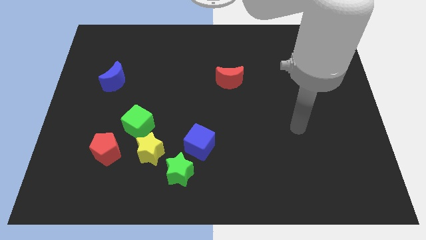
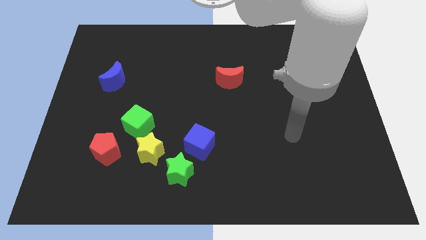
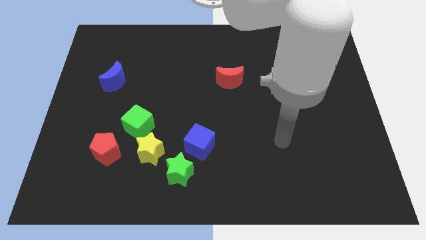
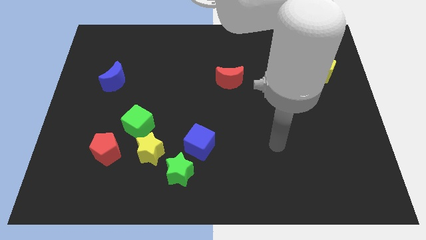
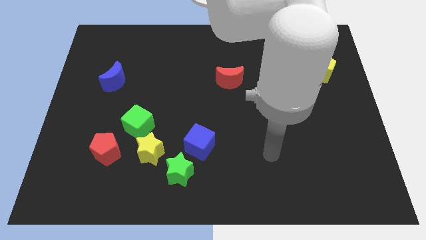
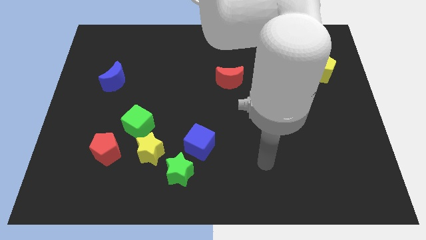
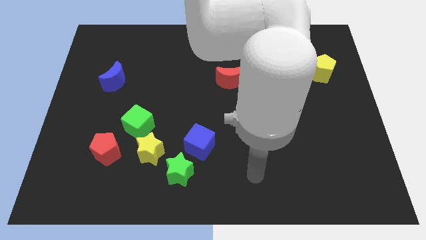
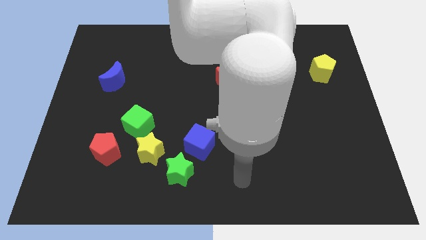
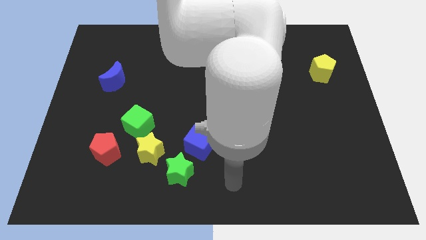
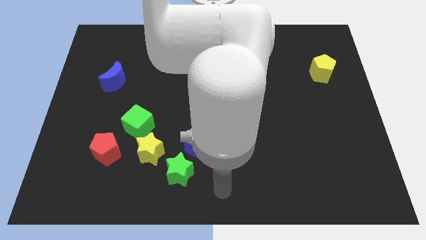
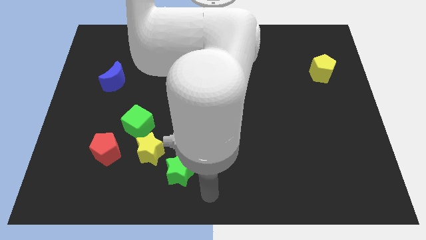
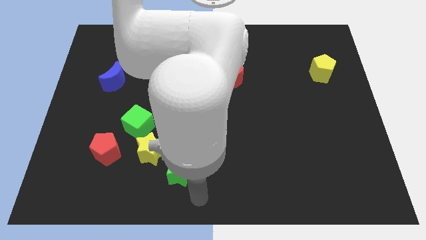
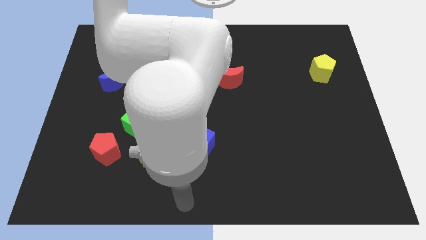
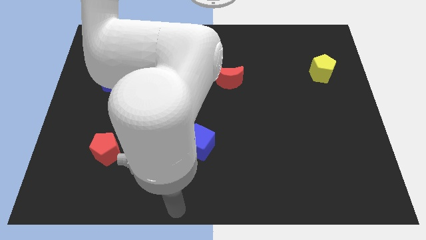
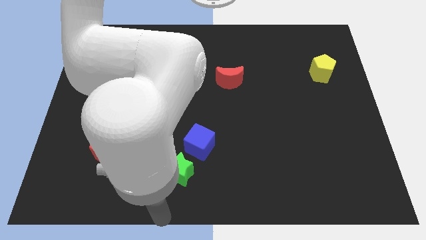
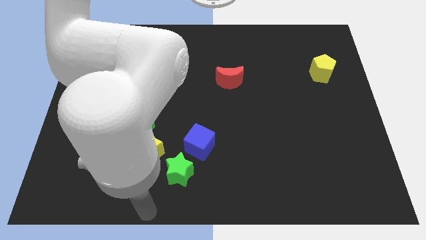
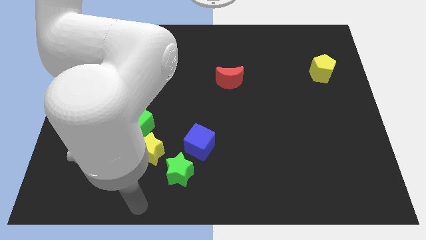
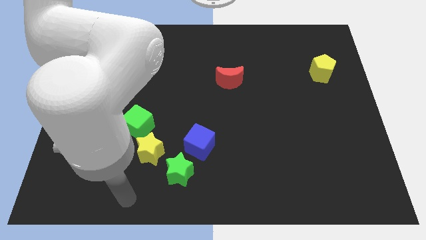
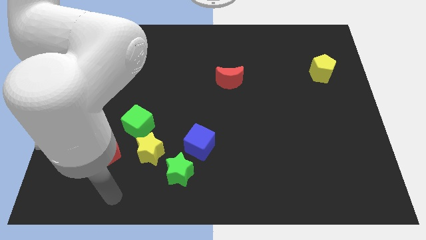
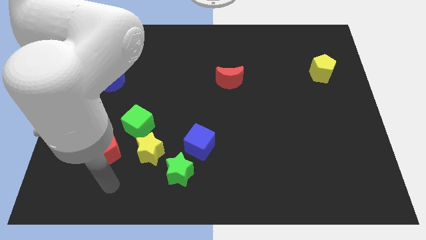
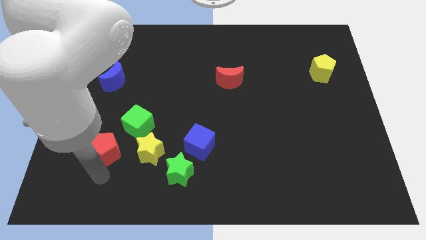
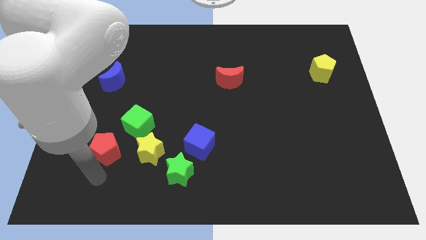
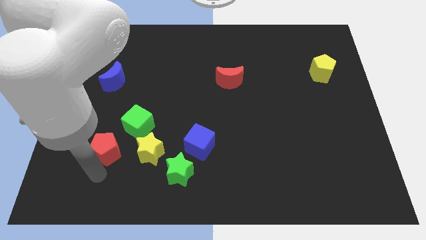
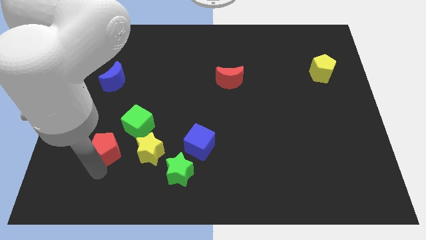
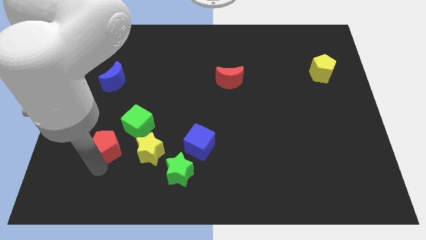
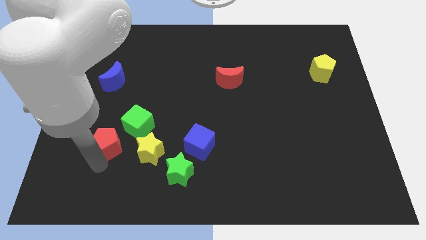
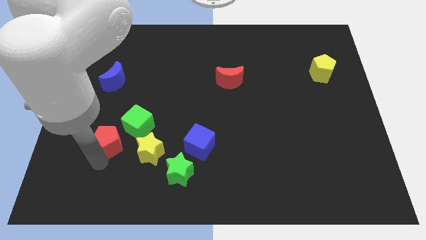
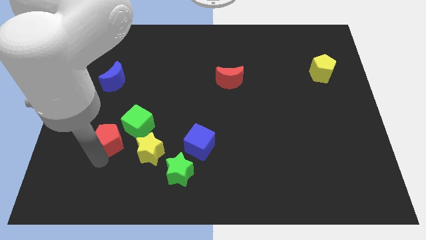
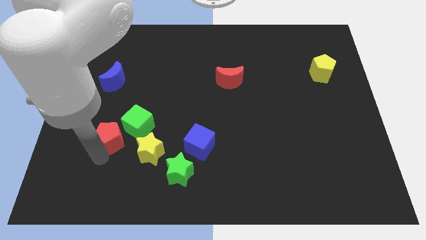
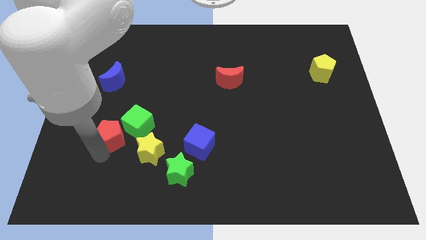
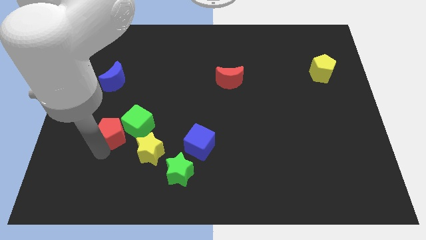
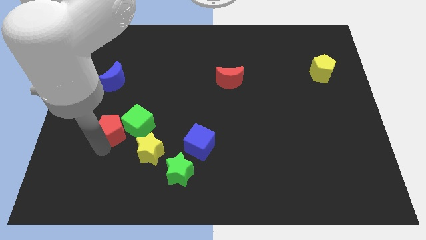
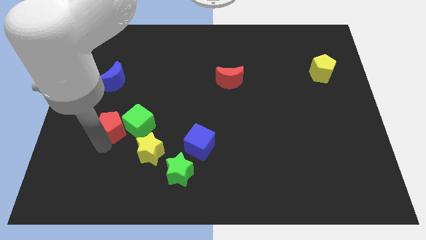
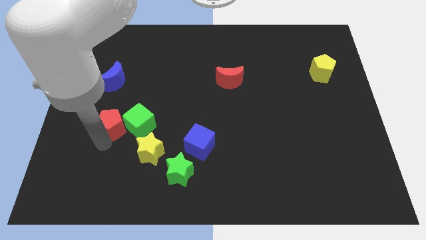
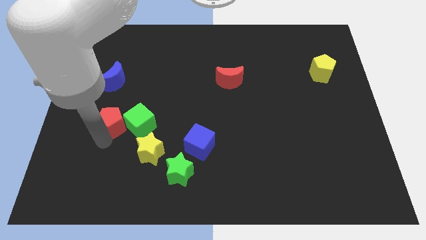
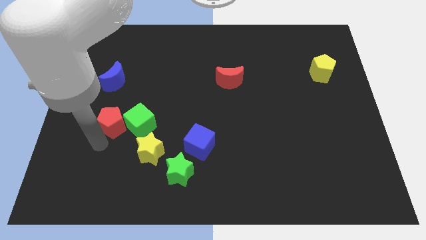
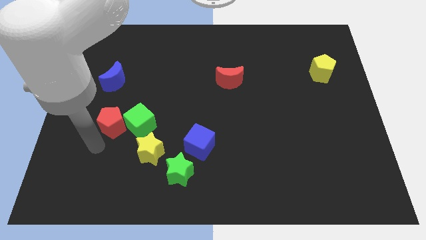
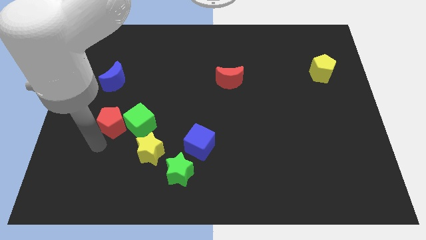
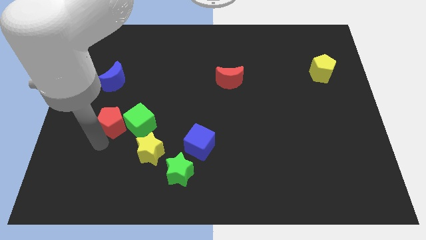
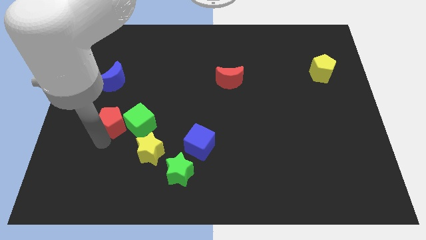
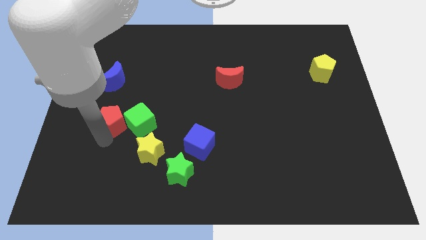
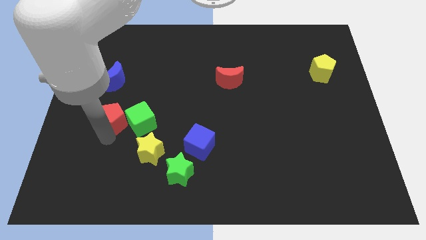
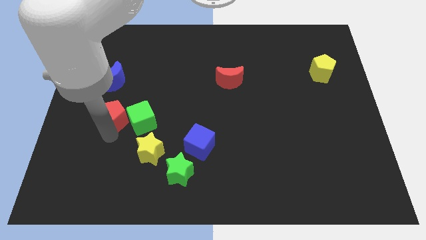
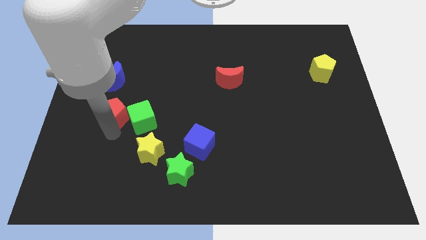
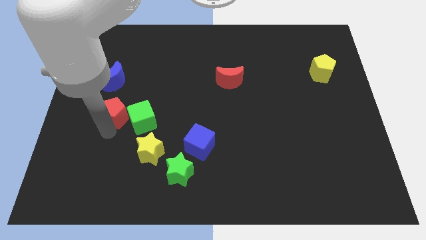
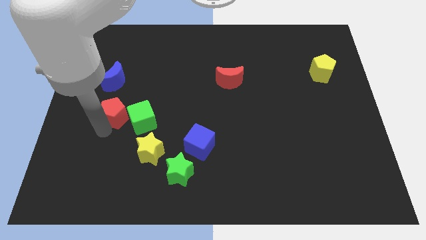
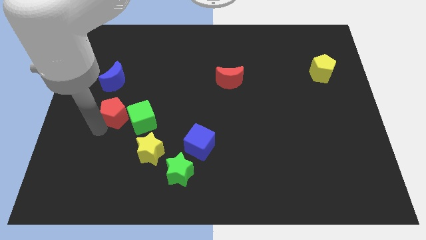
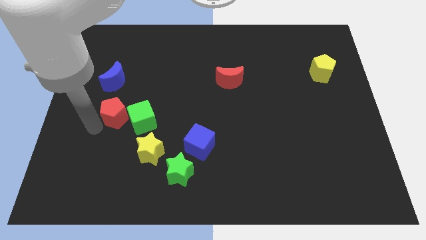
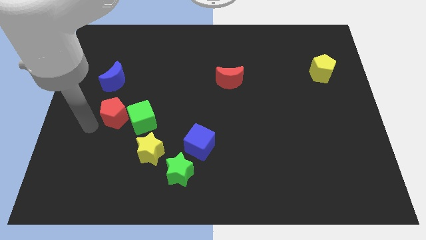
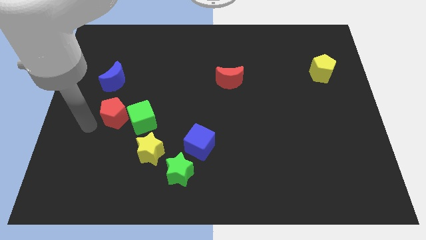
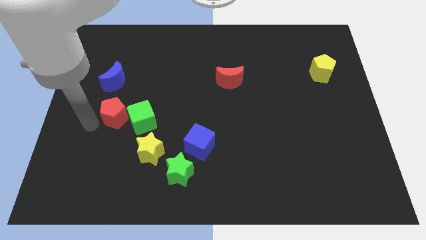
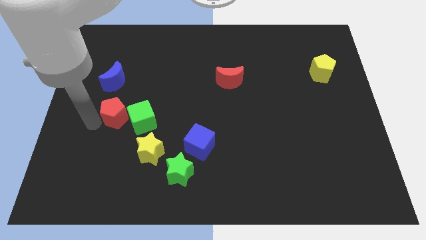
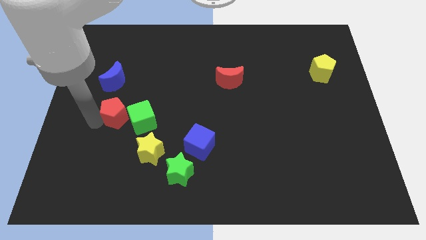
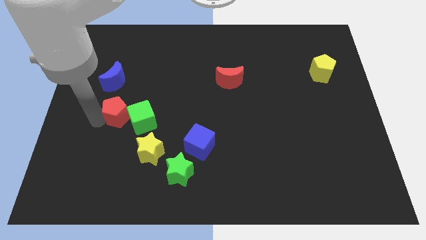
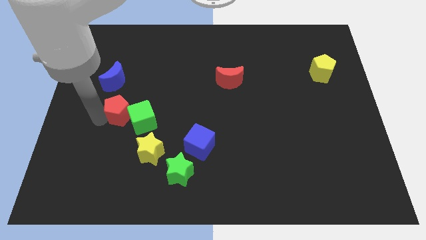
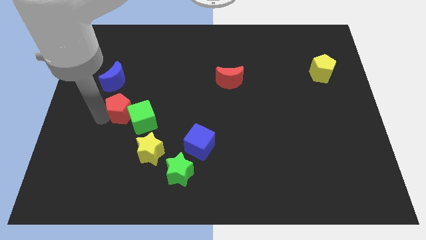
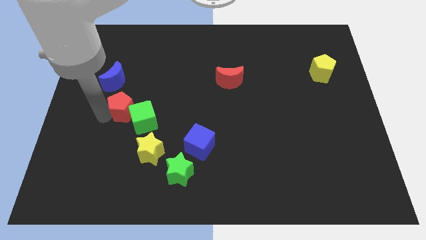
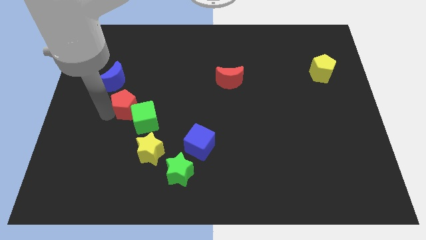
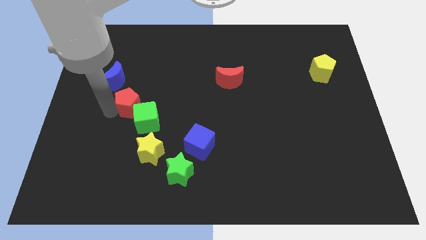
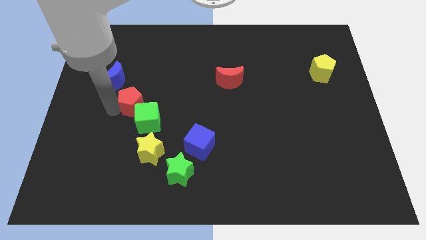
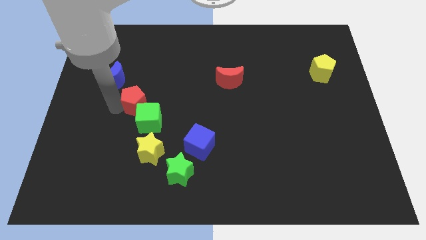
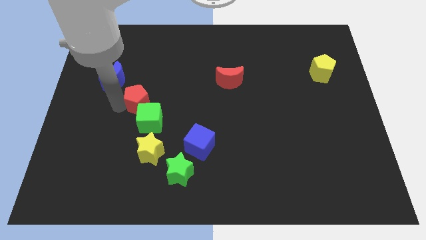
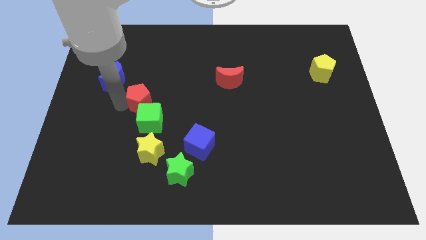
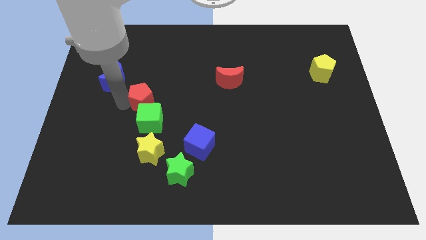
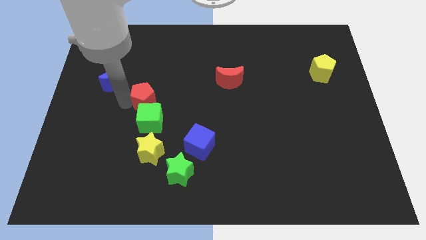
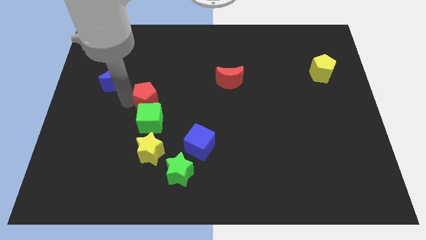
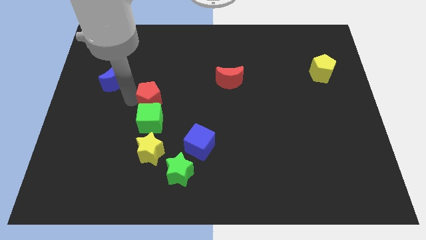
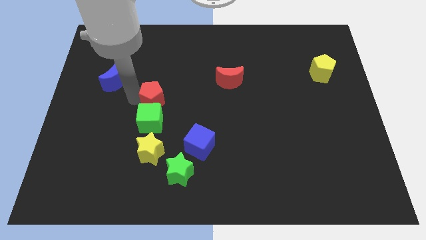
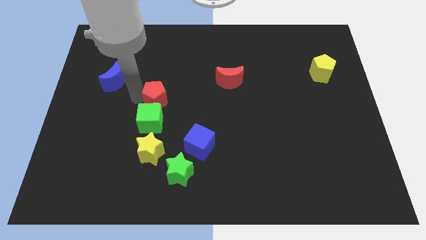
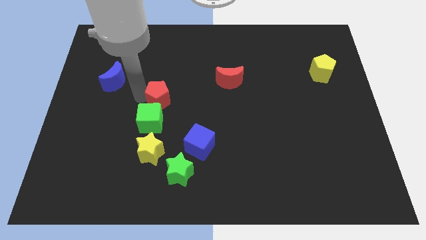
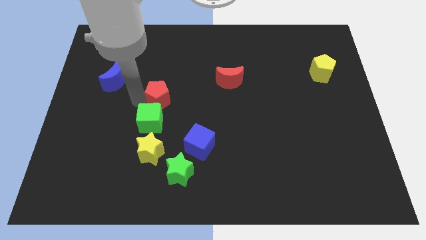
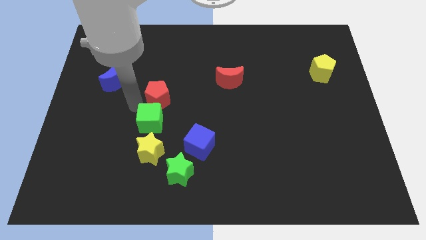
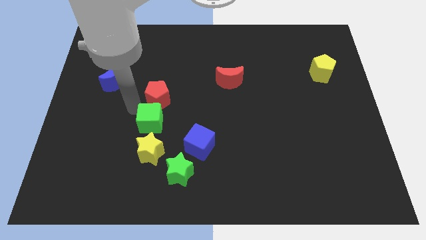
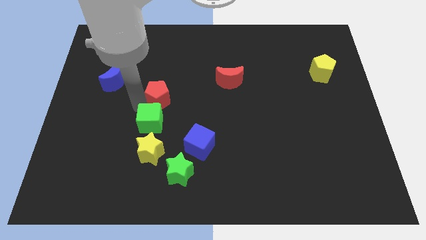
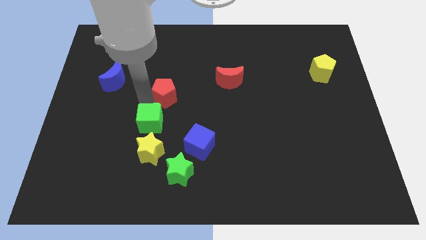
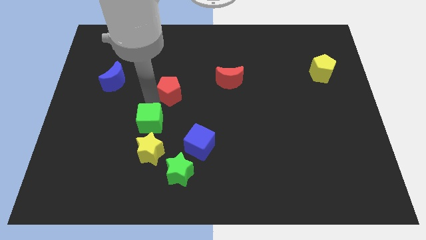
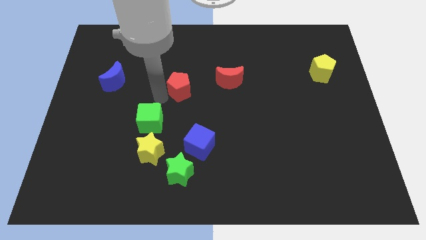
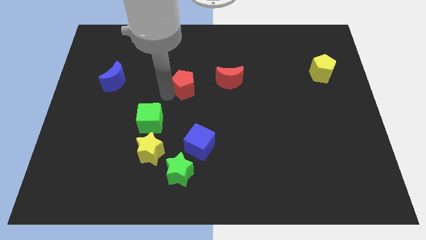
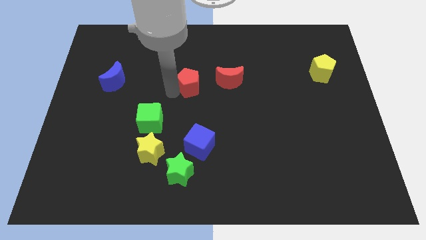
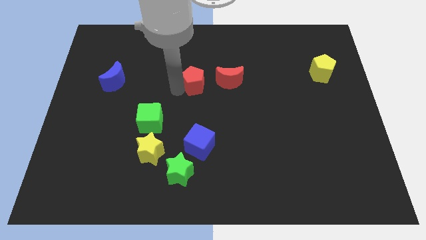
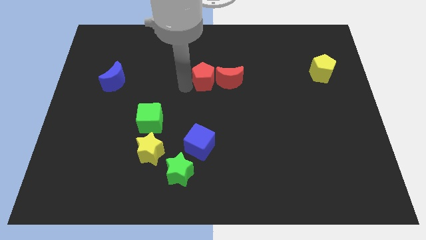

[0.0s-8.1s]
put the red pentagon close to the red moon
